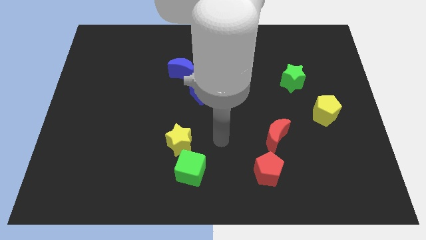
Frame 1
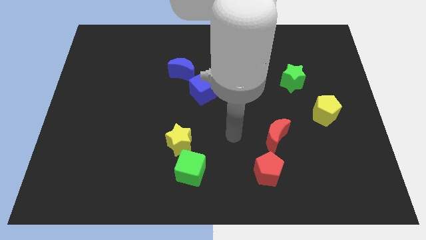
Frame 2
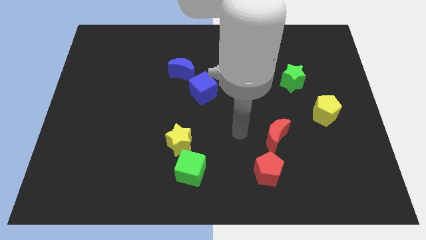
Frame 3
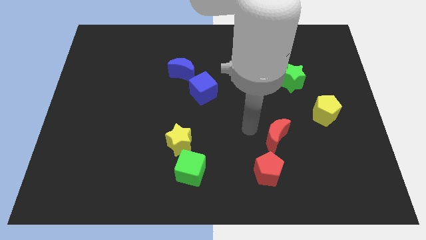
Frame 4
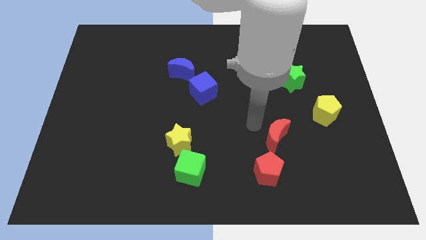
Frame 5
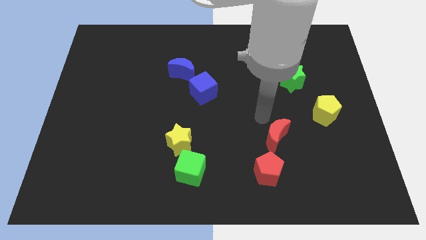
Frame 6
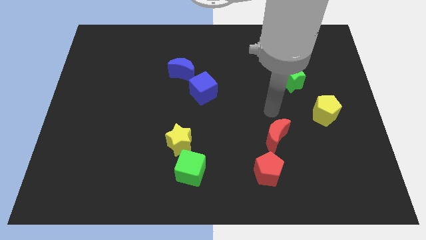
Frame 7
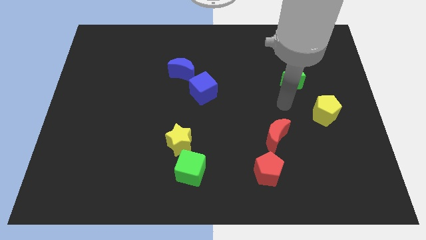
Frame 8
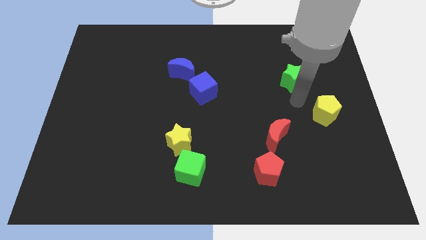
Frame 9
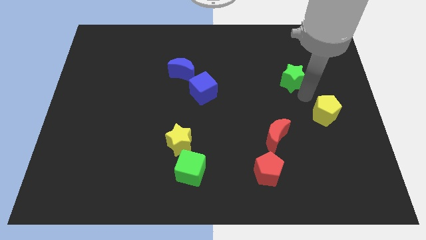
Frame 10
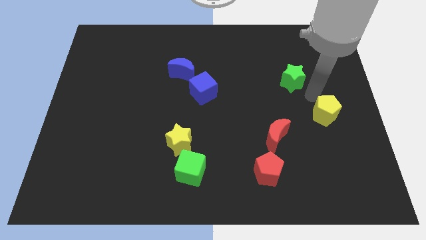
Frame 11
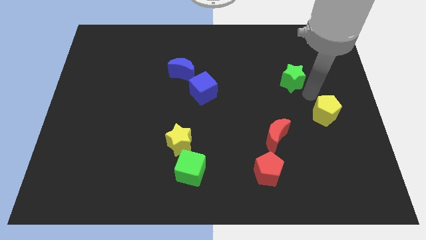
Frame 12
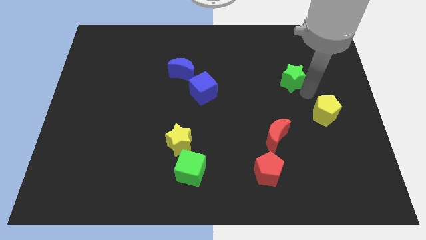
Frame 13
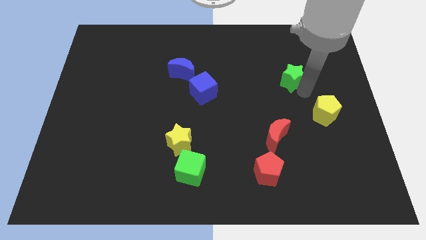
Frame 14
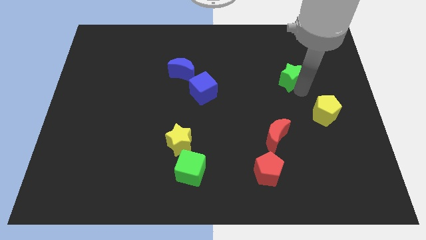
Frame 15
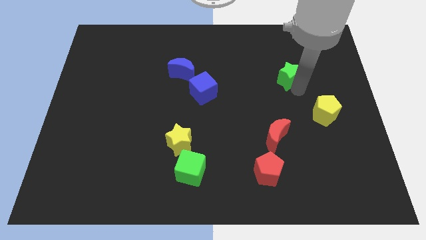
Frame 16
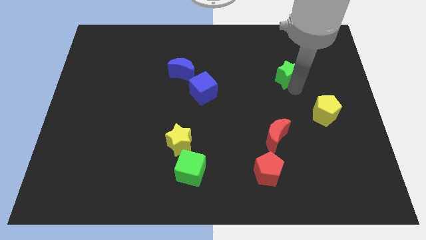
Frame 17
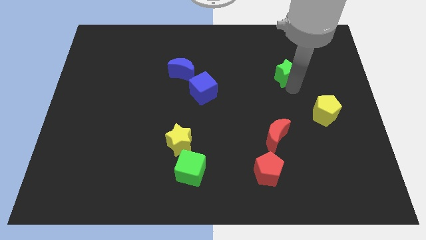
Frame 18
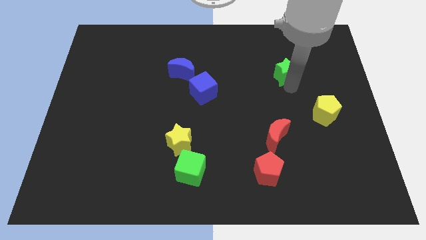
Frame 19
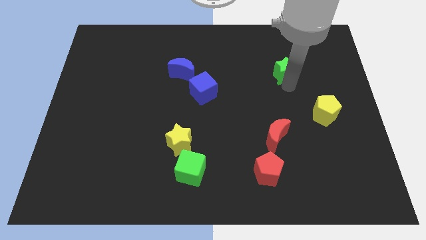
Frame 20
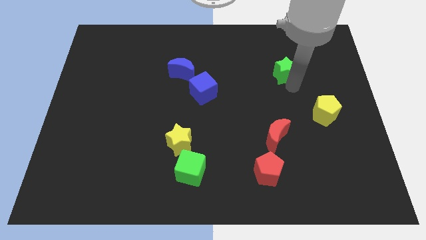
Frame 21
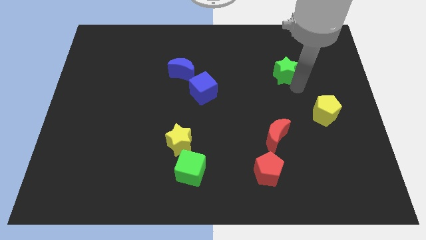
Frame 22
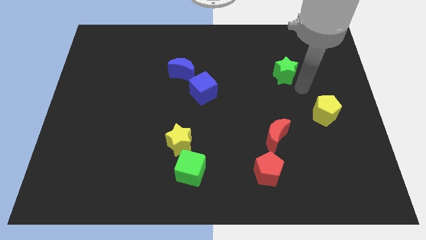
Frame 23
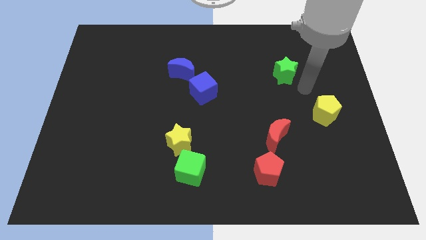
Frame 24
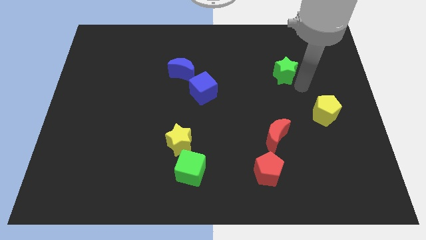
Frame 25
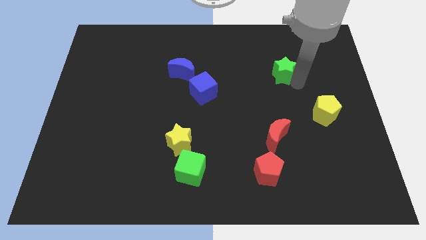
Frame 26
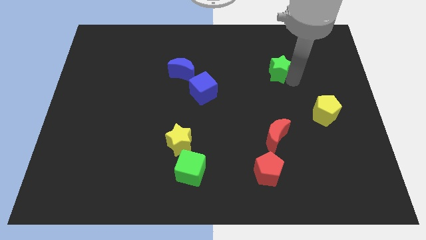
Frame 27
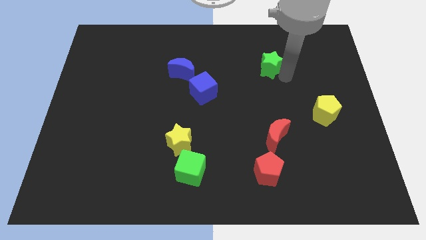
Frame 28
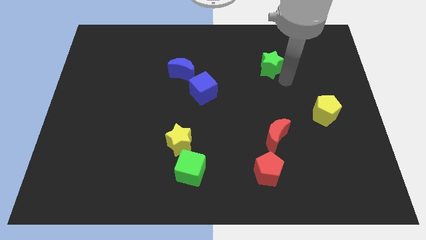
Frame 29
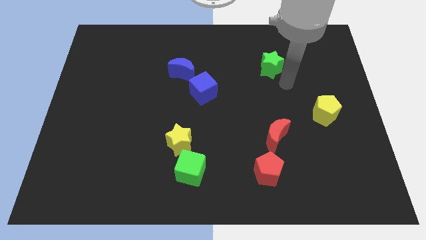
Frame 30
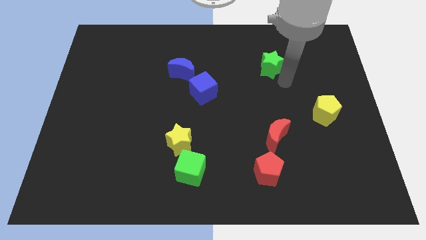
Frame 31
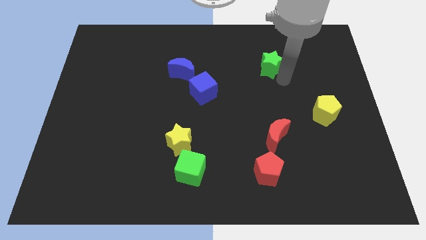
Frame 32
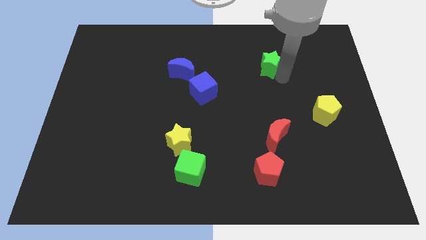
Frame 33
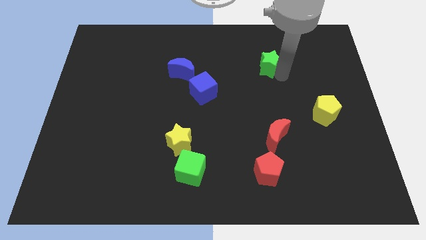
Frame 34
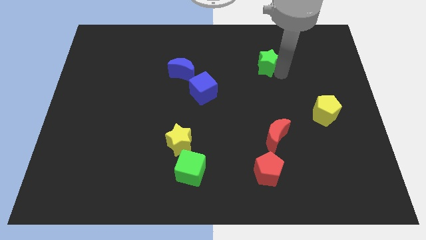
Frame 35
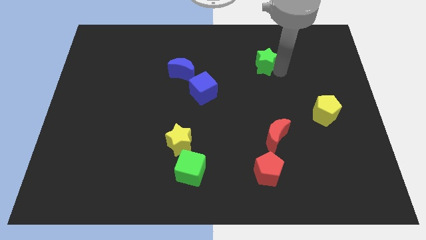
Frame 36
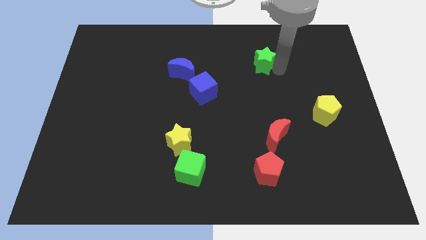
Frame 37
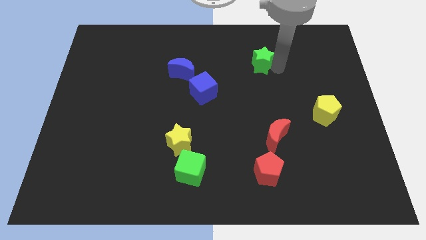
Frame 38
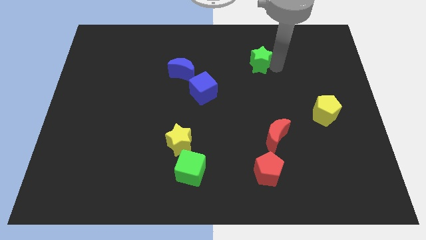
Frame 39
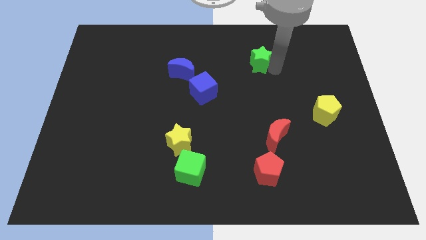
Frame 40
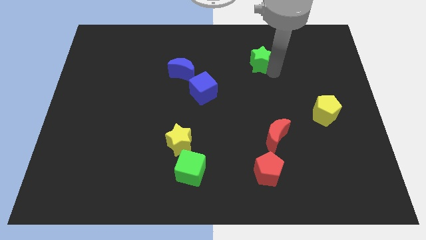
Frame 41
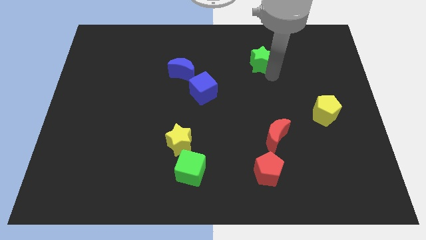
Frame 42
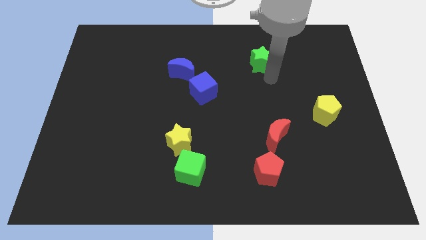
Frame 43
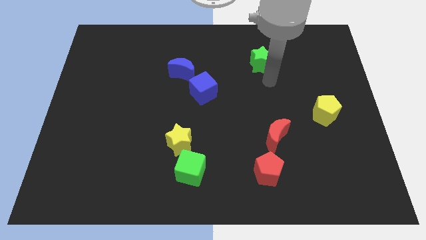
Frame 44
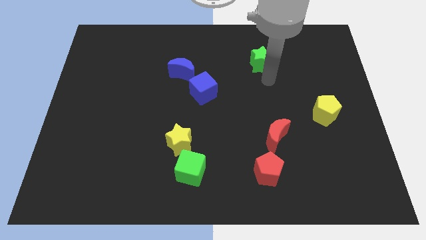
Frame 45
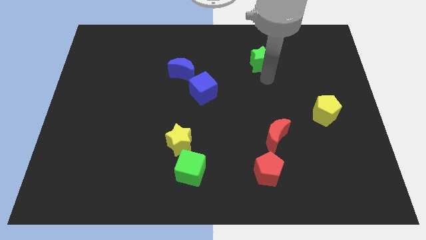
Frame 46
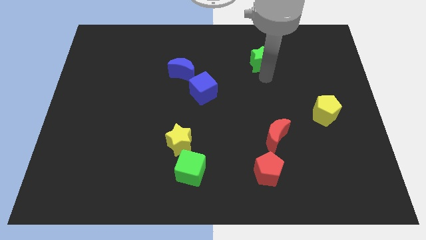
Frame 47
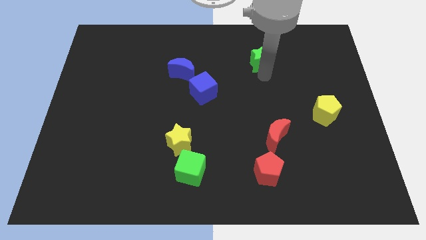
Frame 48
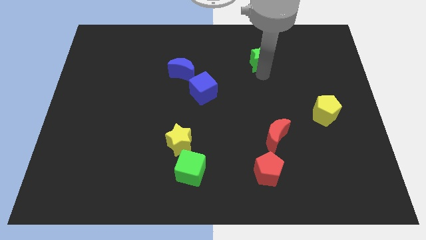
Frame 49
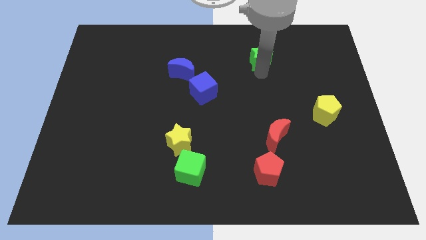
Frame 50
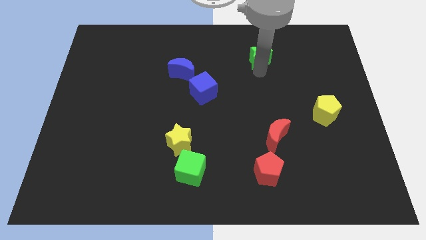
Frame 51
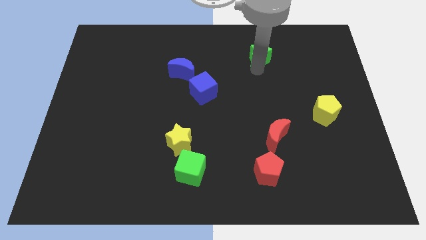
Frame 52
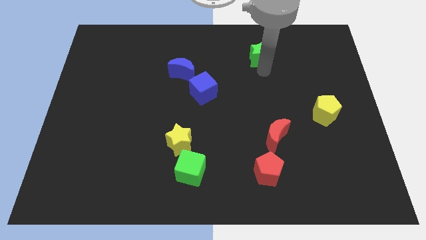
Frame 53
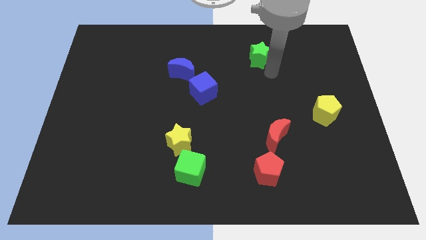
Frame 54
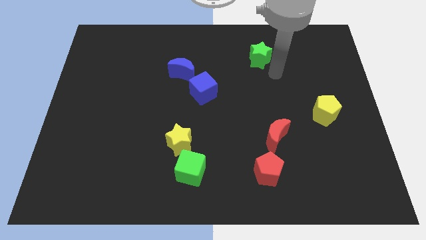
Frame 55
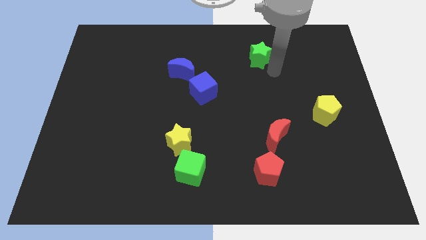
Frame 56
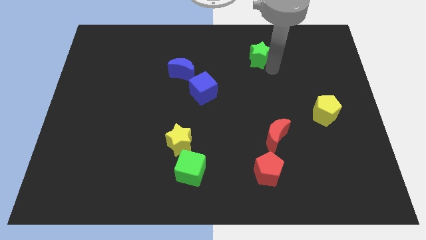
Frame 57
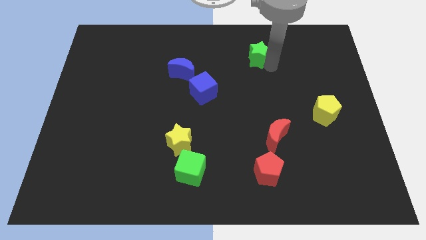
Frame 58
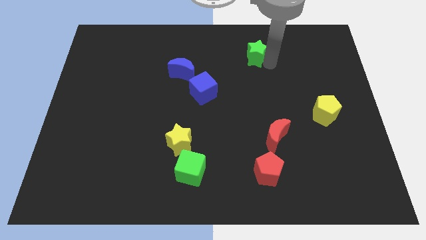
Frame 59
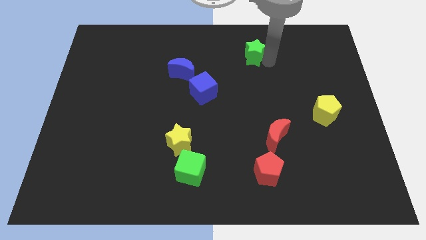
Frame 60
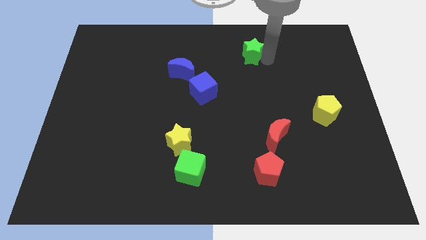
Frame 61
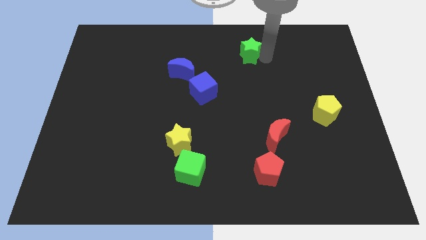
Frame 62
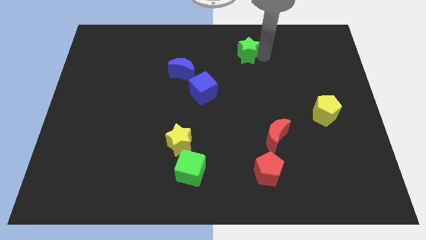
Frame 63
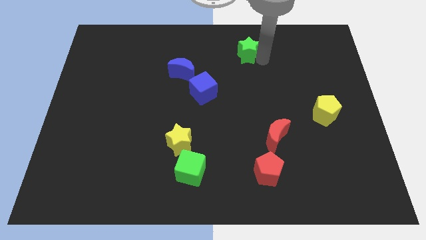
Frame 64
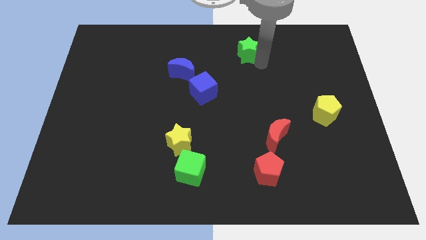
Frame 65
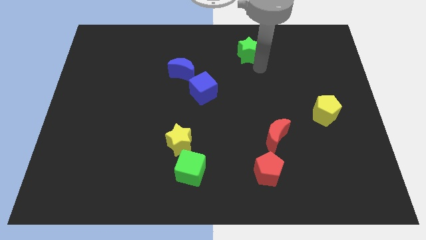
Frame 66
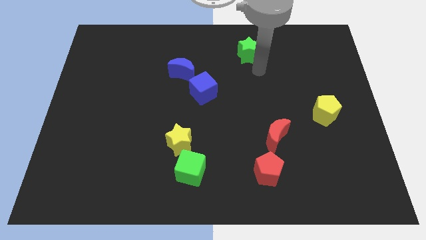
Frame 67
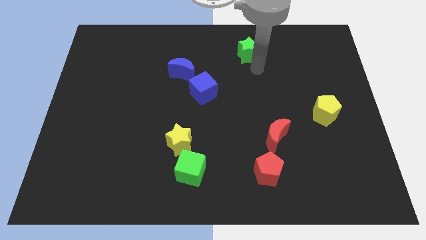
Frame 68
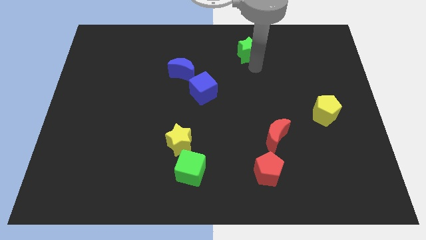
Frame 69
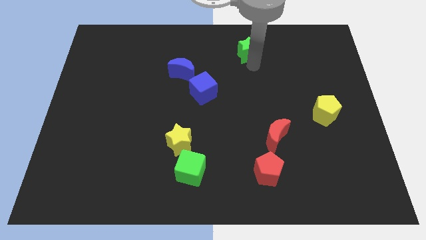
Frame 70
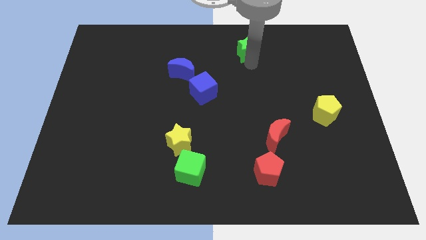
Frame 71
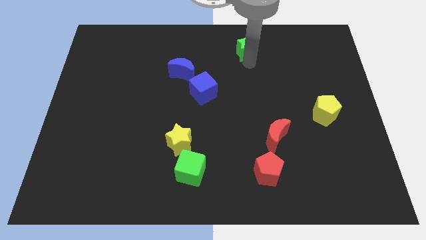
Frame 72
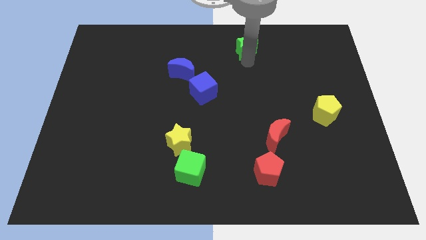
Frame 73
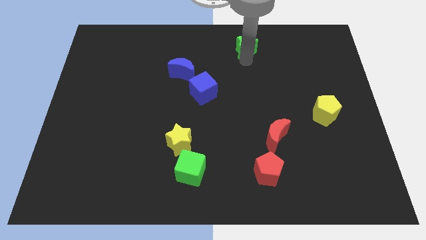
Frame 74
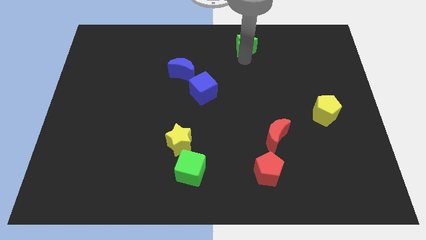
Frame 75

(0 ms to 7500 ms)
slide the green star to the towards your base
